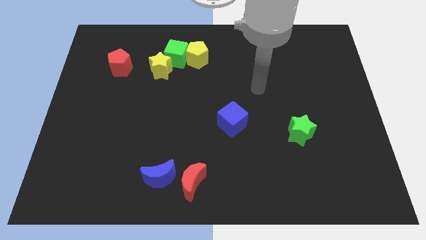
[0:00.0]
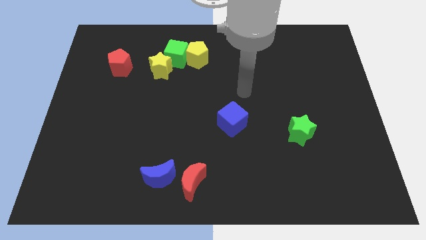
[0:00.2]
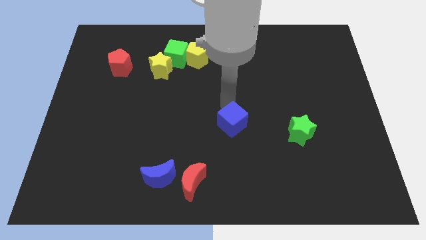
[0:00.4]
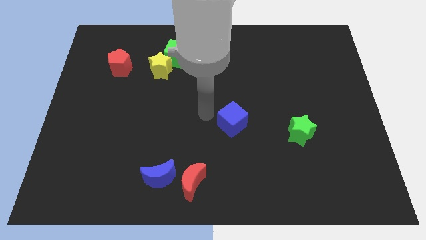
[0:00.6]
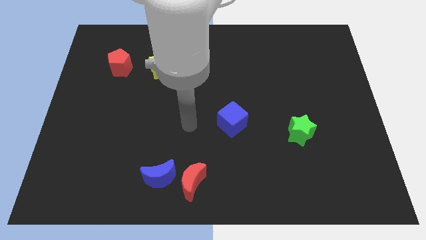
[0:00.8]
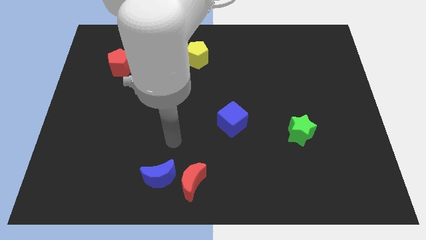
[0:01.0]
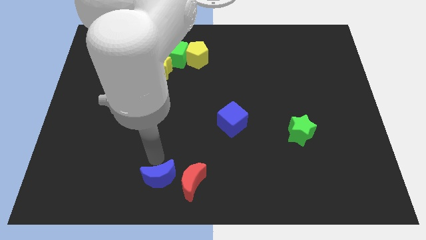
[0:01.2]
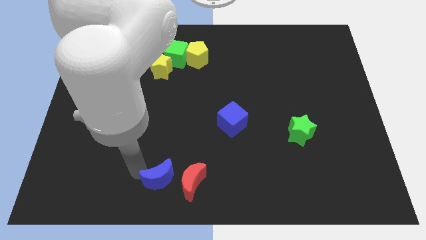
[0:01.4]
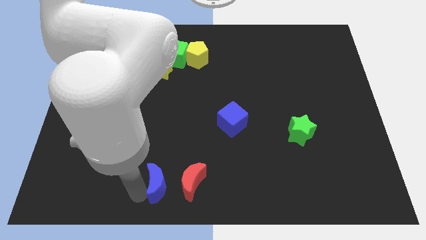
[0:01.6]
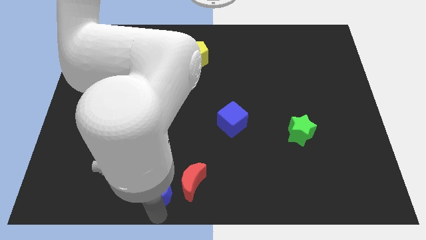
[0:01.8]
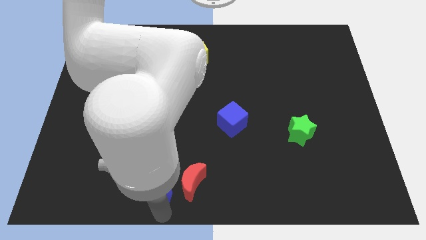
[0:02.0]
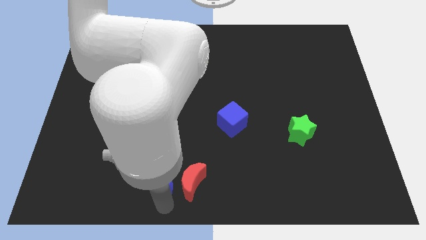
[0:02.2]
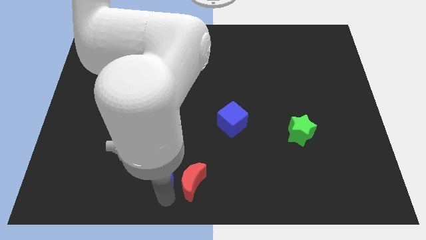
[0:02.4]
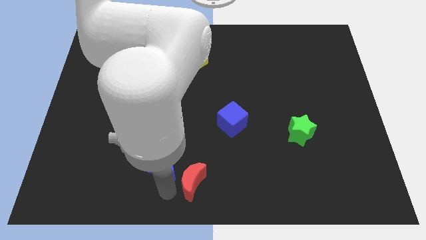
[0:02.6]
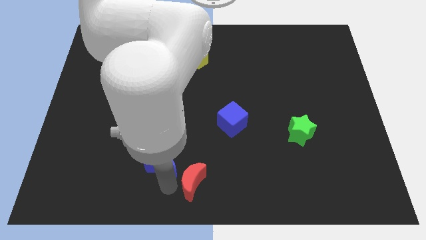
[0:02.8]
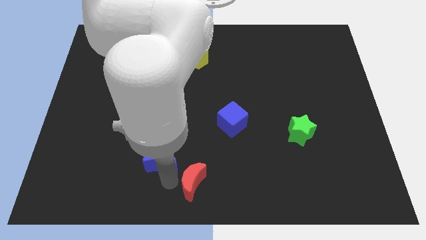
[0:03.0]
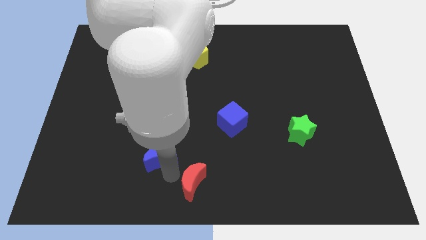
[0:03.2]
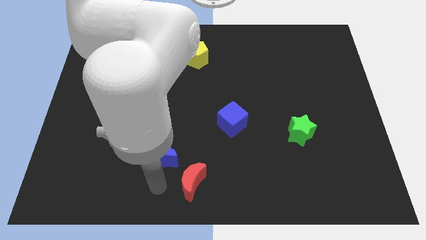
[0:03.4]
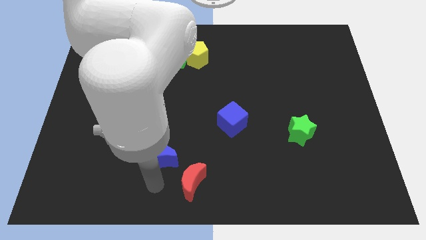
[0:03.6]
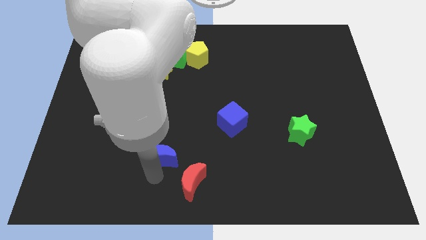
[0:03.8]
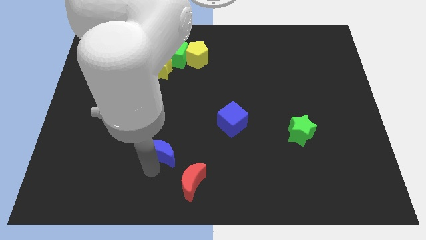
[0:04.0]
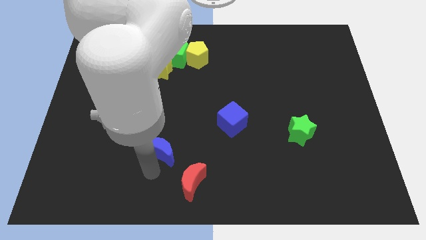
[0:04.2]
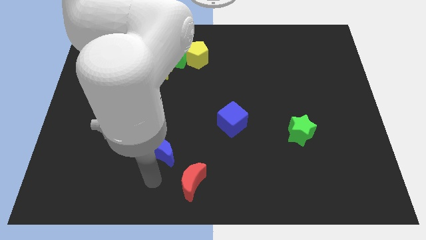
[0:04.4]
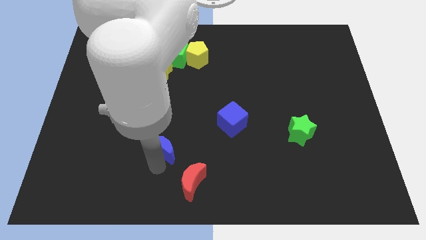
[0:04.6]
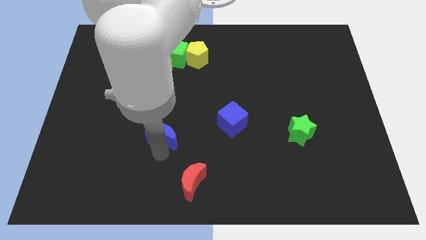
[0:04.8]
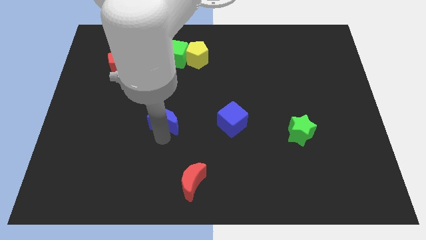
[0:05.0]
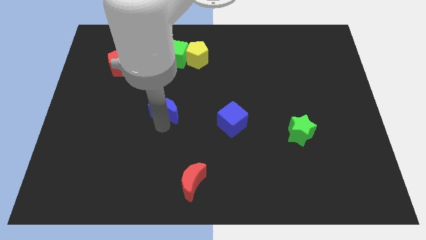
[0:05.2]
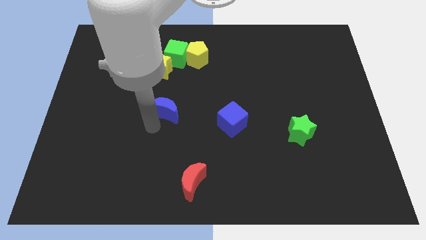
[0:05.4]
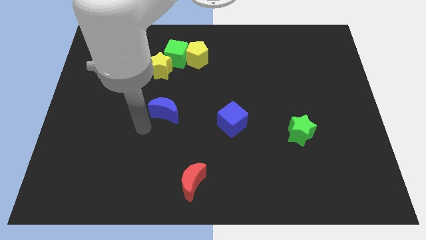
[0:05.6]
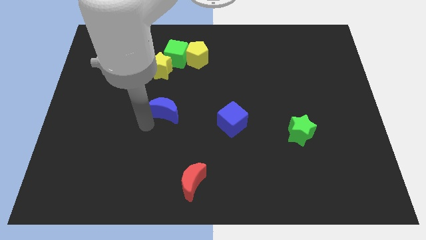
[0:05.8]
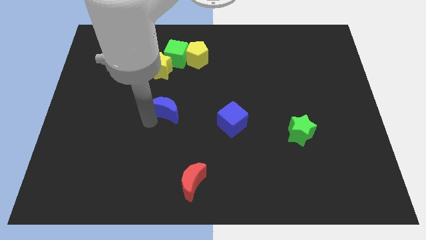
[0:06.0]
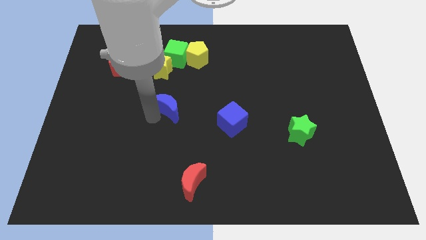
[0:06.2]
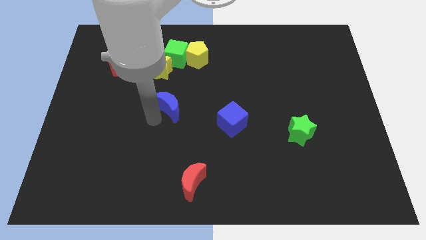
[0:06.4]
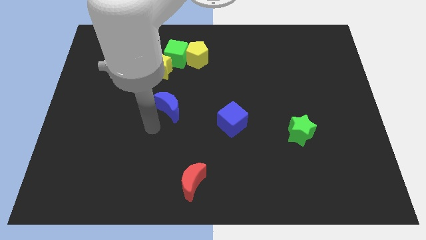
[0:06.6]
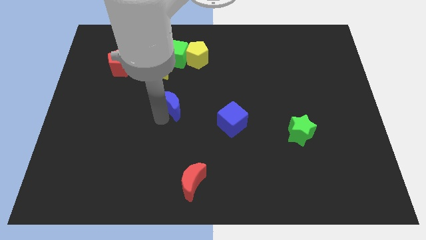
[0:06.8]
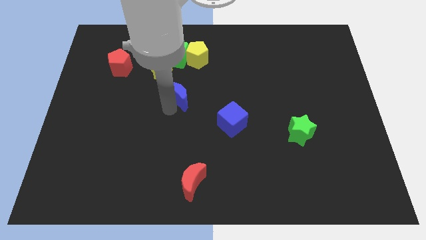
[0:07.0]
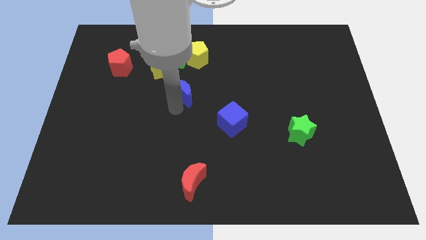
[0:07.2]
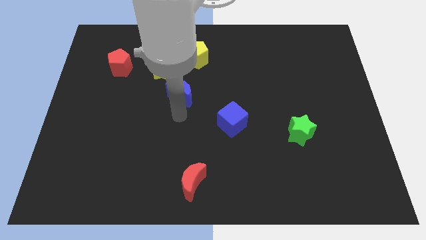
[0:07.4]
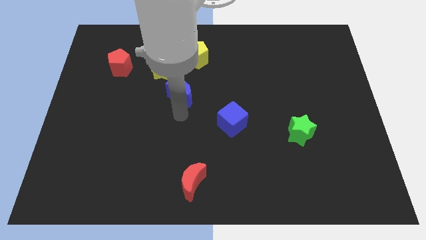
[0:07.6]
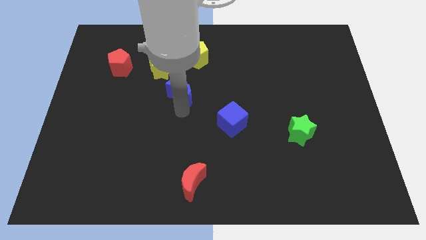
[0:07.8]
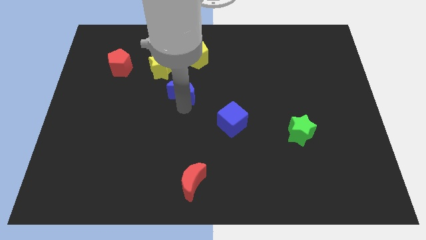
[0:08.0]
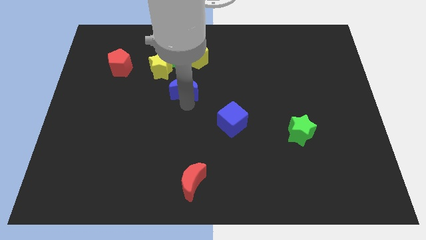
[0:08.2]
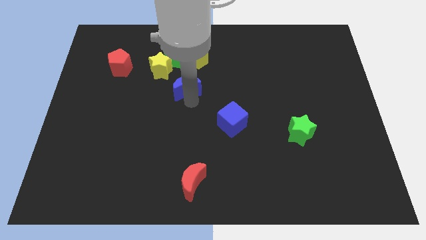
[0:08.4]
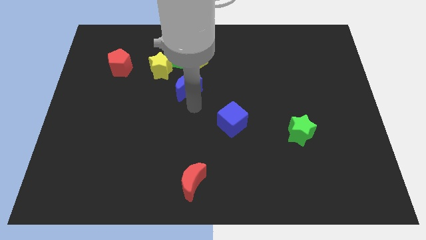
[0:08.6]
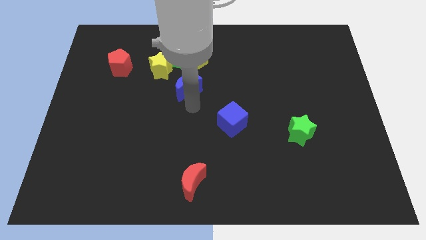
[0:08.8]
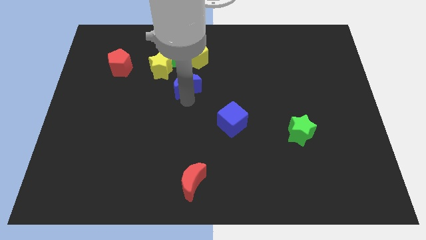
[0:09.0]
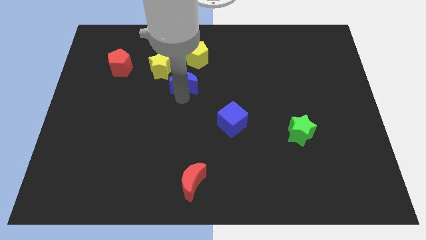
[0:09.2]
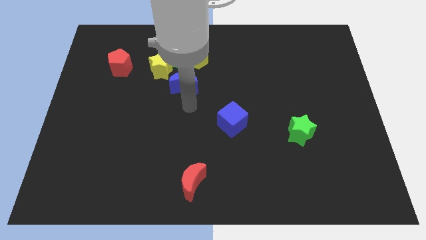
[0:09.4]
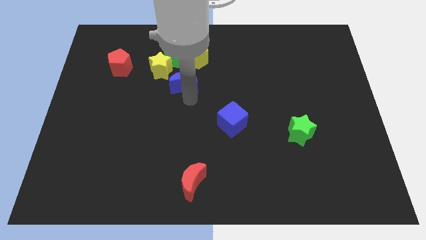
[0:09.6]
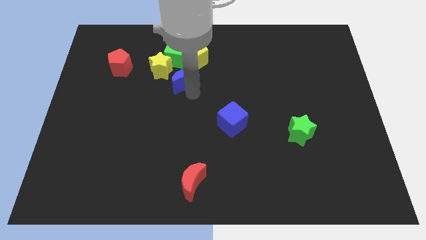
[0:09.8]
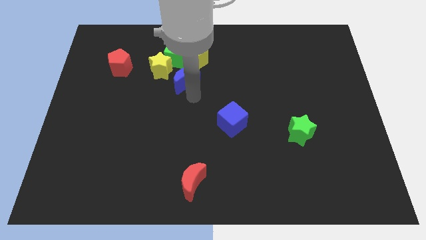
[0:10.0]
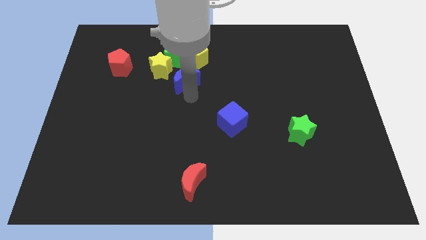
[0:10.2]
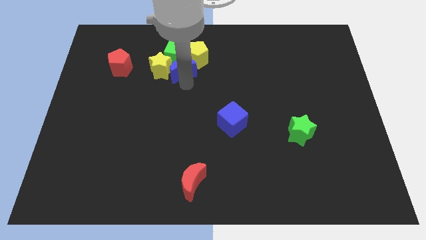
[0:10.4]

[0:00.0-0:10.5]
push the blue moon close to the green cube

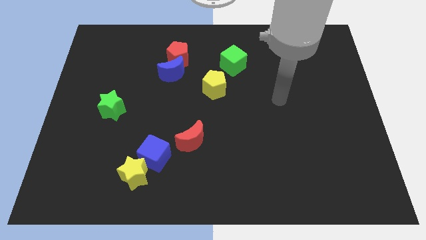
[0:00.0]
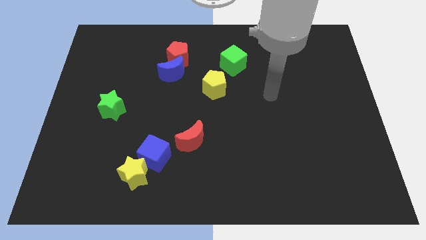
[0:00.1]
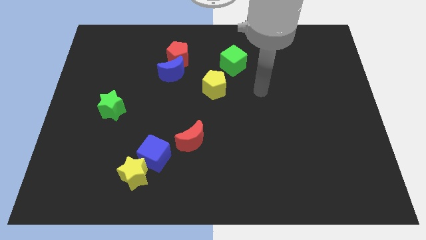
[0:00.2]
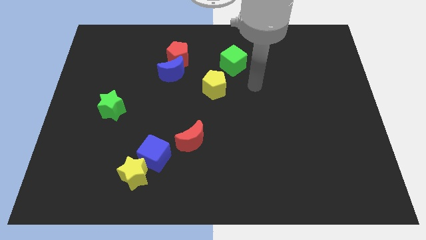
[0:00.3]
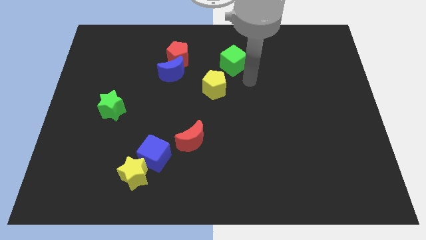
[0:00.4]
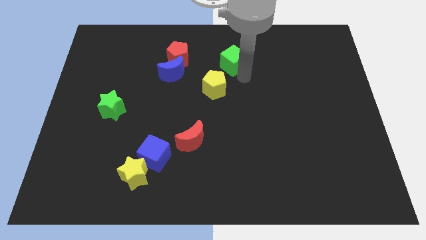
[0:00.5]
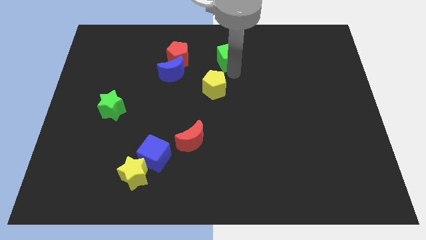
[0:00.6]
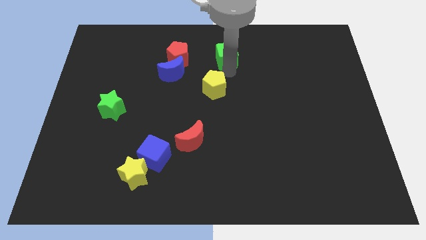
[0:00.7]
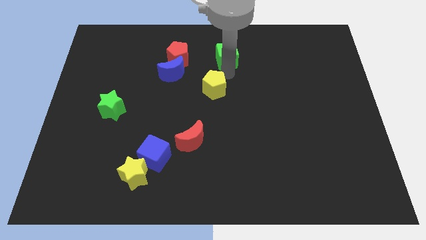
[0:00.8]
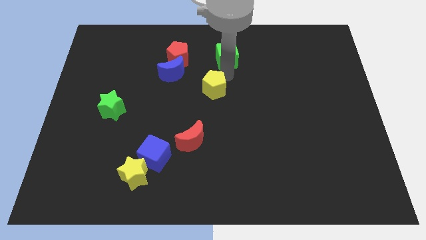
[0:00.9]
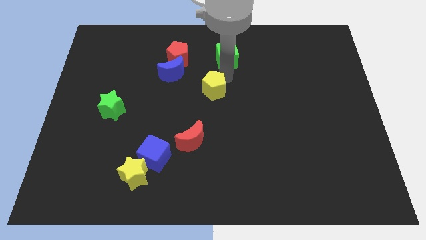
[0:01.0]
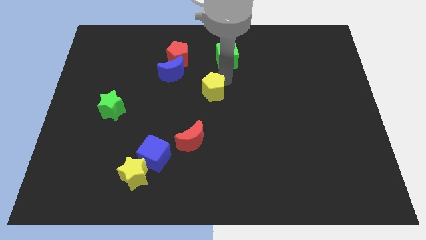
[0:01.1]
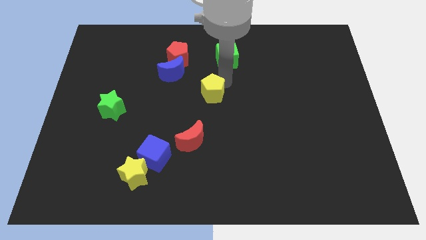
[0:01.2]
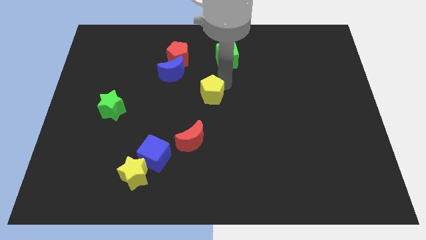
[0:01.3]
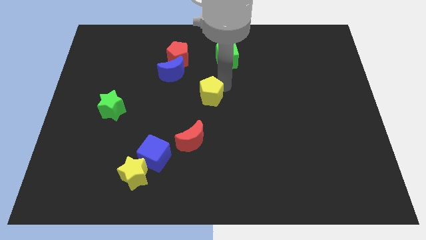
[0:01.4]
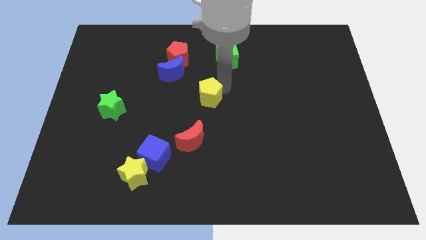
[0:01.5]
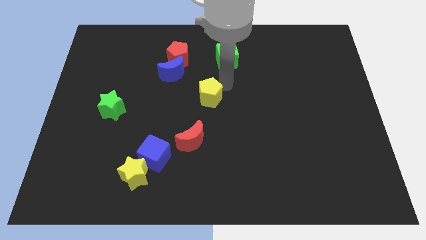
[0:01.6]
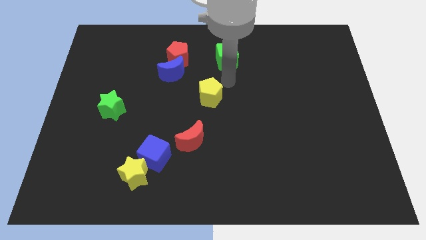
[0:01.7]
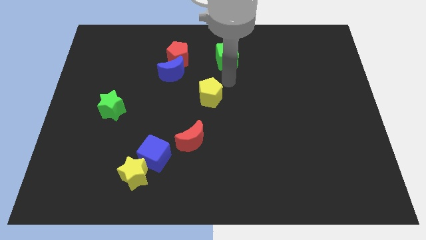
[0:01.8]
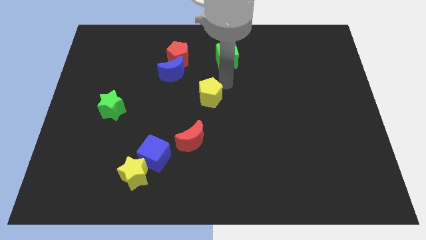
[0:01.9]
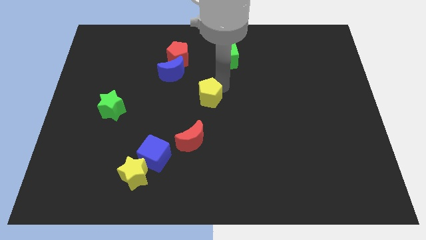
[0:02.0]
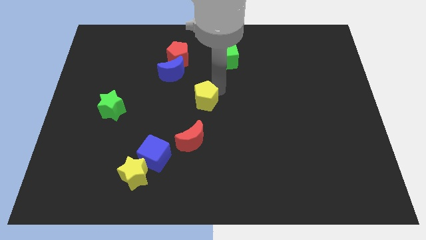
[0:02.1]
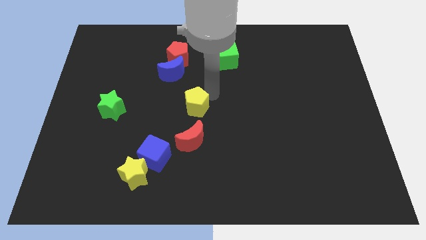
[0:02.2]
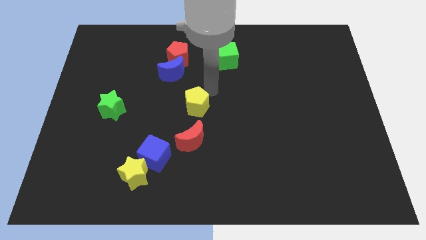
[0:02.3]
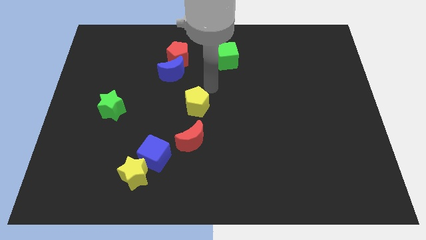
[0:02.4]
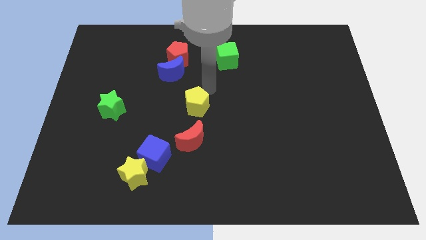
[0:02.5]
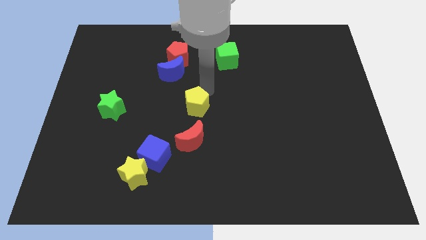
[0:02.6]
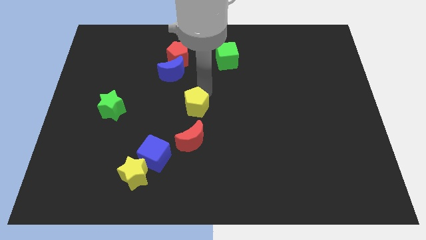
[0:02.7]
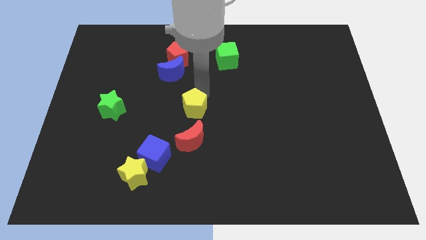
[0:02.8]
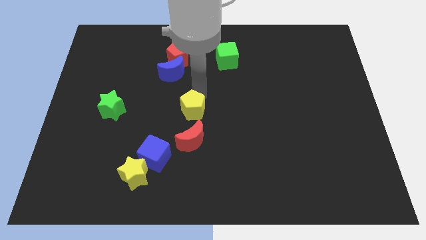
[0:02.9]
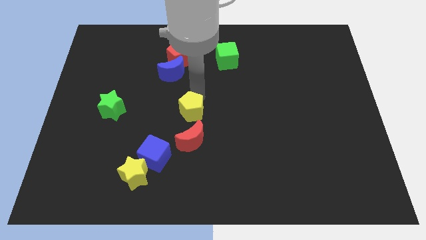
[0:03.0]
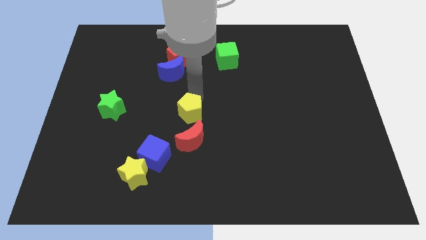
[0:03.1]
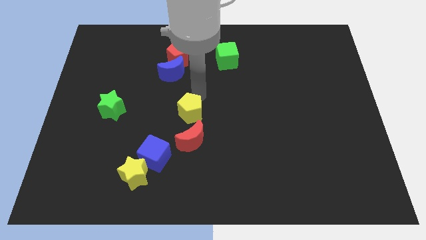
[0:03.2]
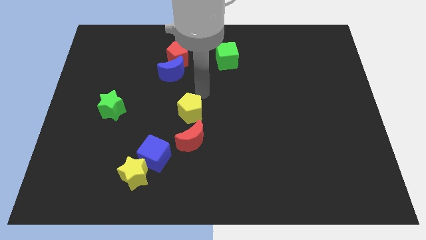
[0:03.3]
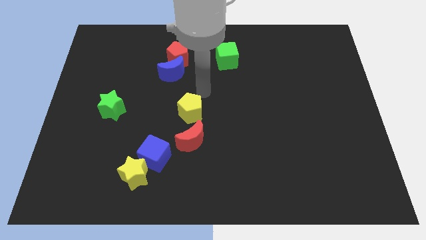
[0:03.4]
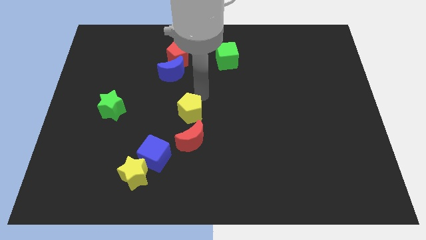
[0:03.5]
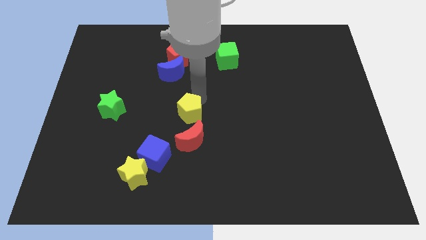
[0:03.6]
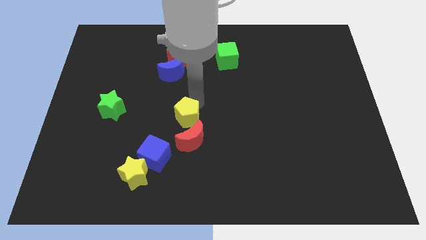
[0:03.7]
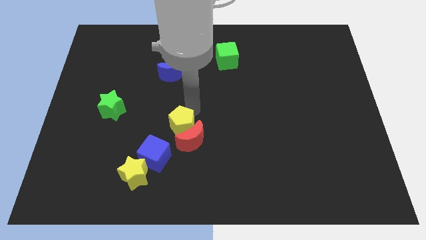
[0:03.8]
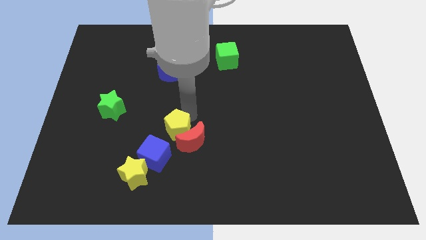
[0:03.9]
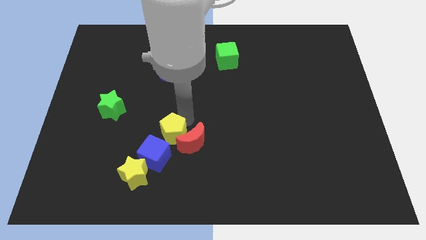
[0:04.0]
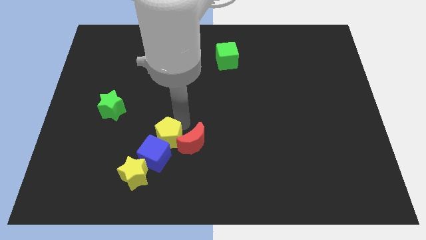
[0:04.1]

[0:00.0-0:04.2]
put the yellow pentagon towards the blue cube
